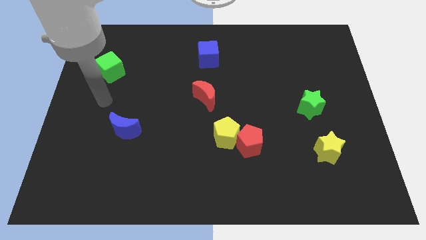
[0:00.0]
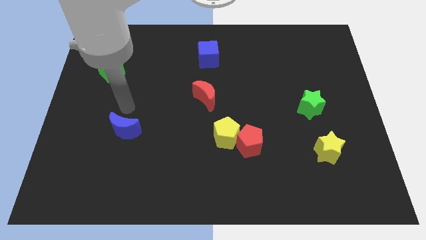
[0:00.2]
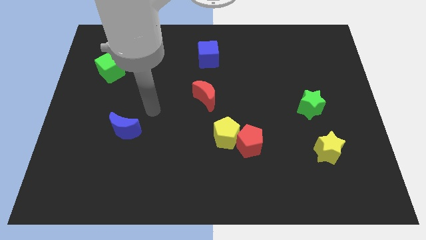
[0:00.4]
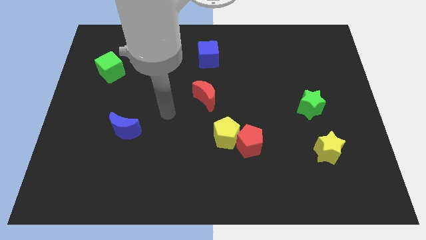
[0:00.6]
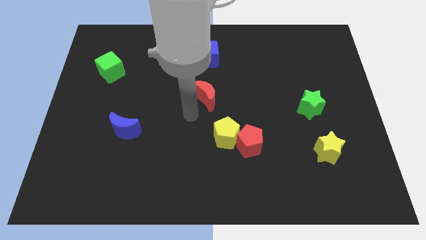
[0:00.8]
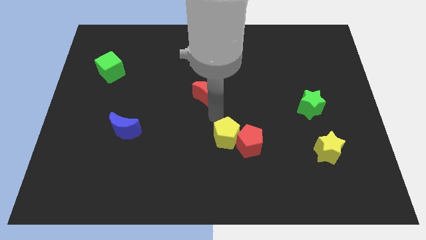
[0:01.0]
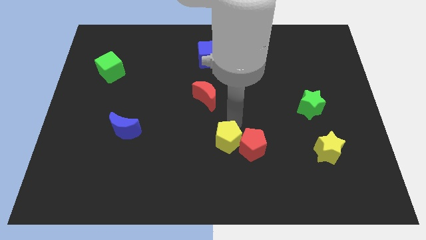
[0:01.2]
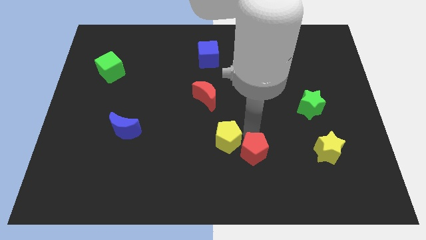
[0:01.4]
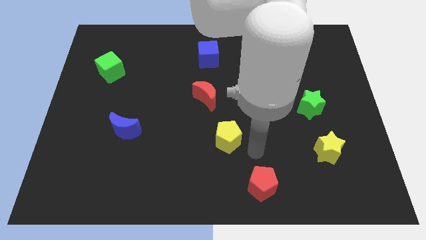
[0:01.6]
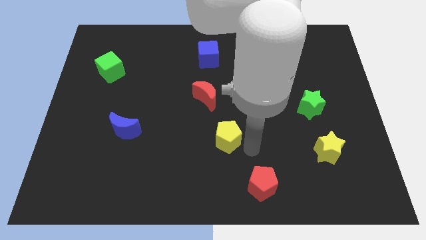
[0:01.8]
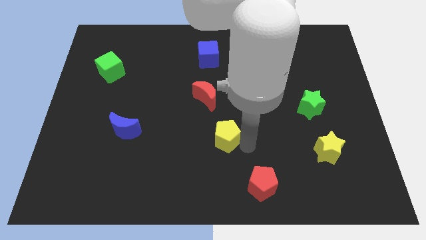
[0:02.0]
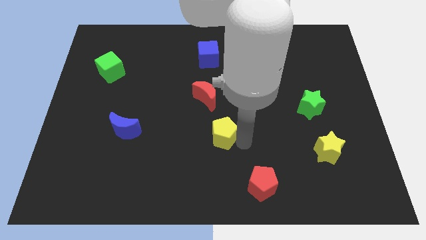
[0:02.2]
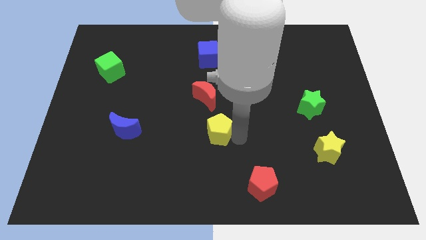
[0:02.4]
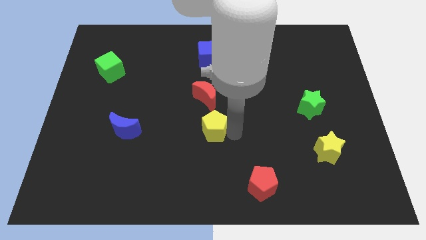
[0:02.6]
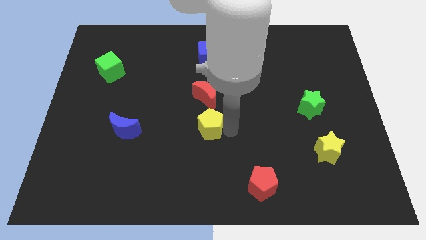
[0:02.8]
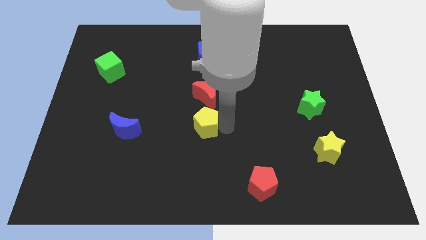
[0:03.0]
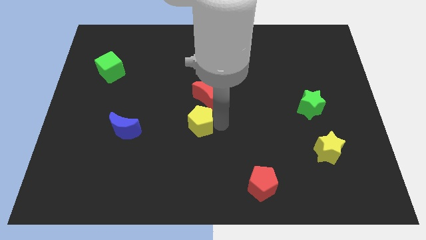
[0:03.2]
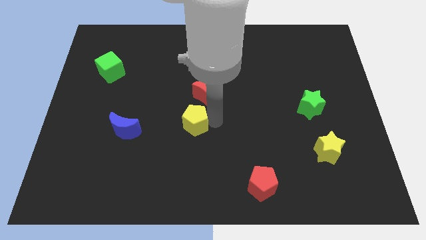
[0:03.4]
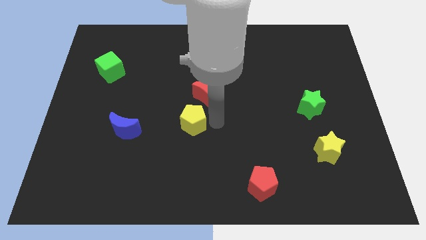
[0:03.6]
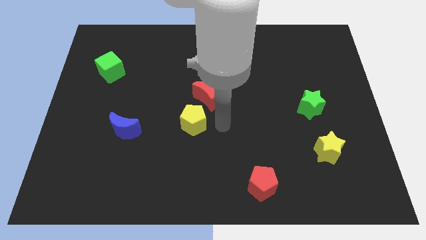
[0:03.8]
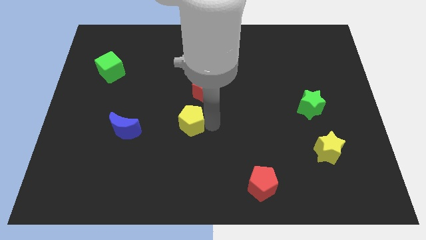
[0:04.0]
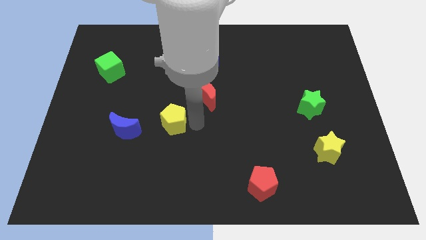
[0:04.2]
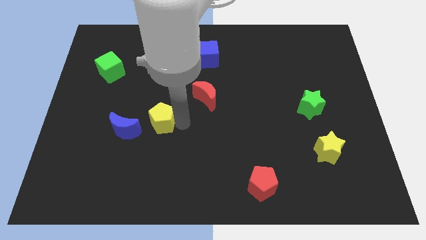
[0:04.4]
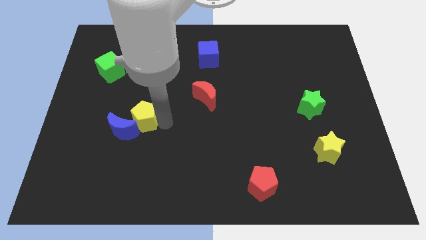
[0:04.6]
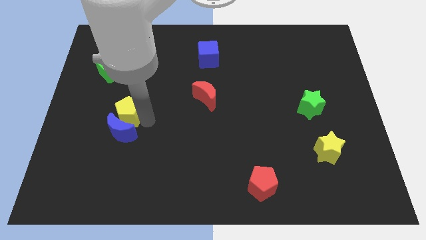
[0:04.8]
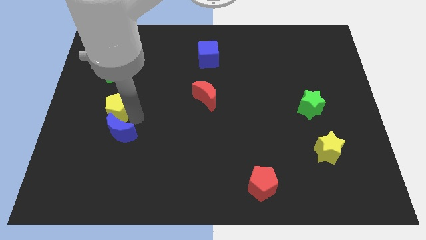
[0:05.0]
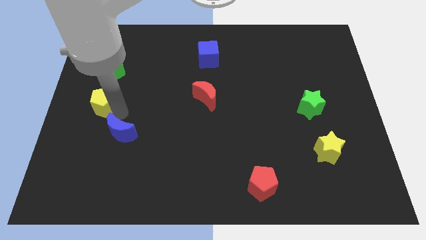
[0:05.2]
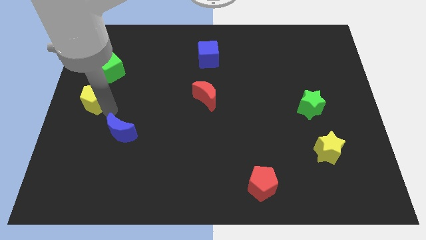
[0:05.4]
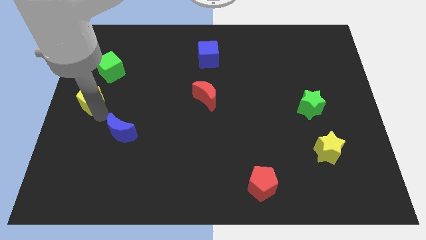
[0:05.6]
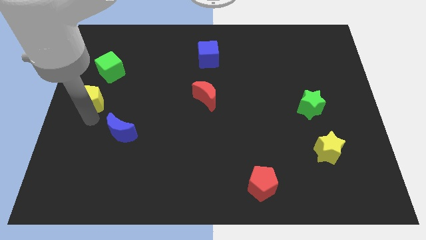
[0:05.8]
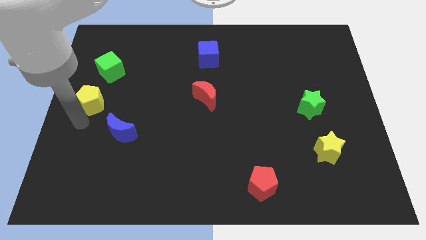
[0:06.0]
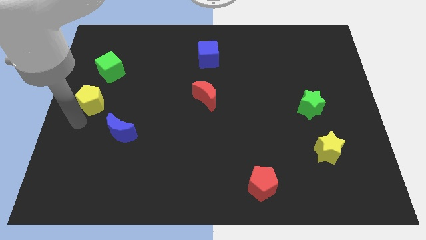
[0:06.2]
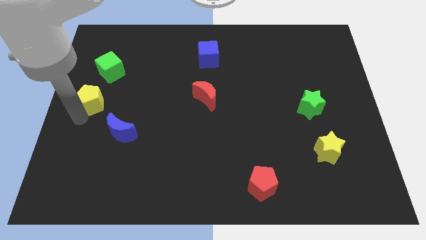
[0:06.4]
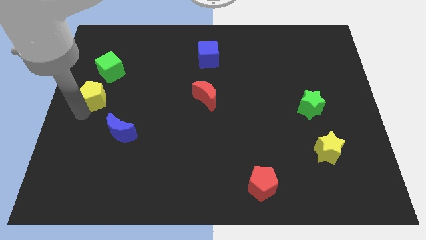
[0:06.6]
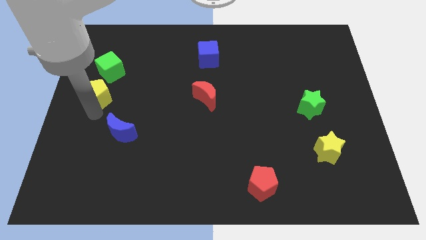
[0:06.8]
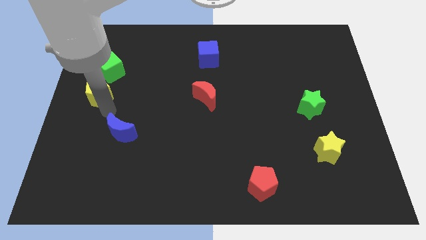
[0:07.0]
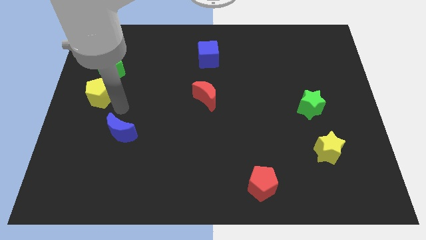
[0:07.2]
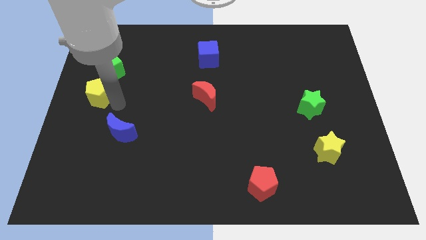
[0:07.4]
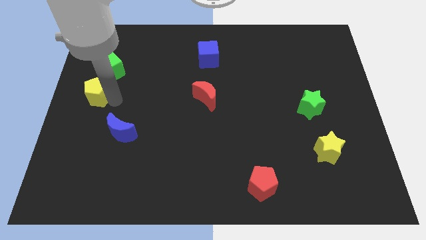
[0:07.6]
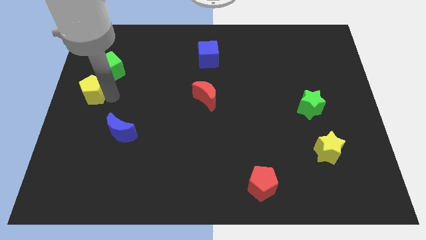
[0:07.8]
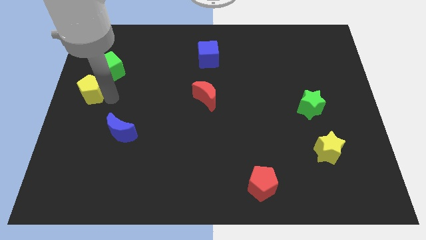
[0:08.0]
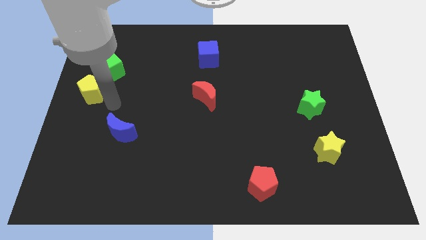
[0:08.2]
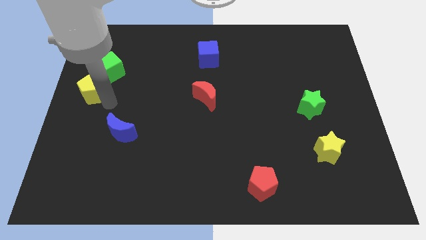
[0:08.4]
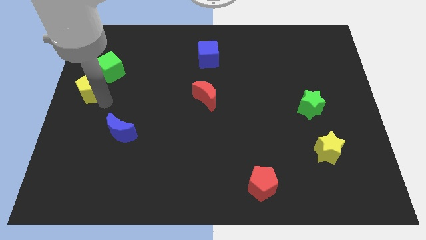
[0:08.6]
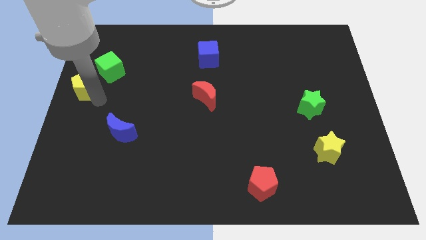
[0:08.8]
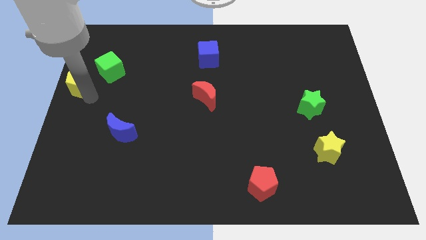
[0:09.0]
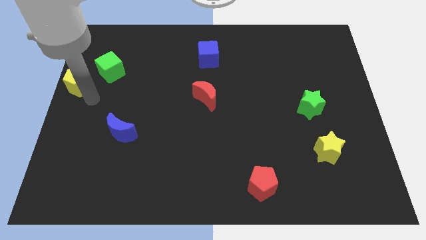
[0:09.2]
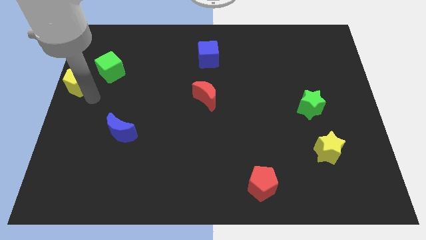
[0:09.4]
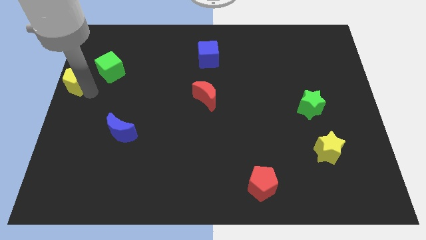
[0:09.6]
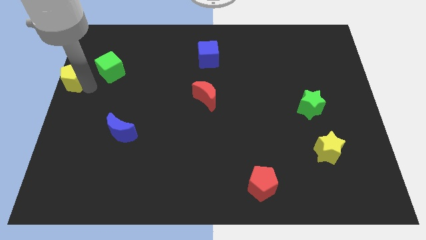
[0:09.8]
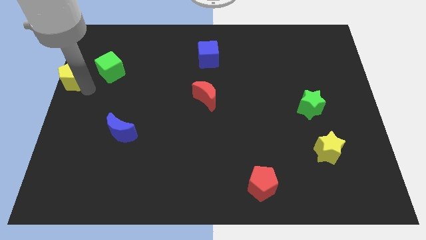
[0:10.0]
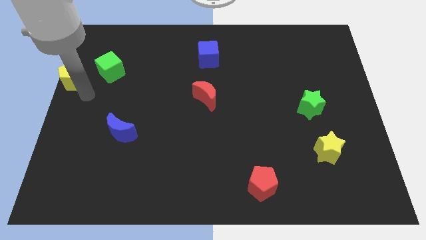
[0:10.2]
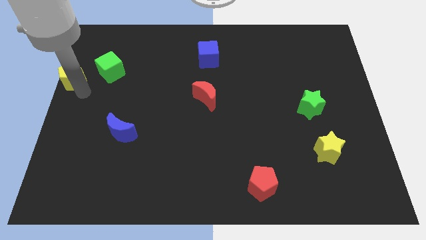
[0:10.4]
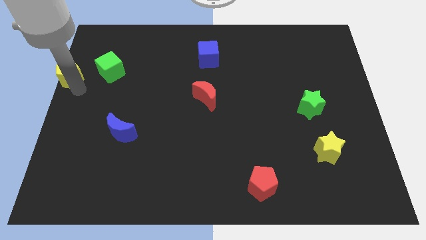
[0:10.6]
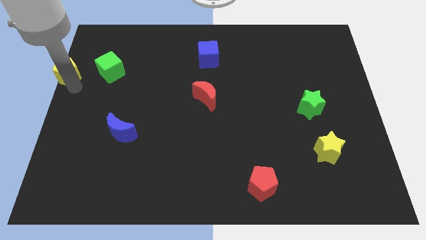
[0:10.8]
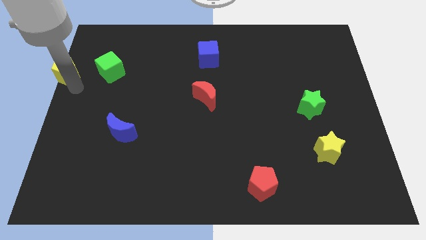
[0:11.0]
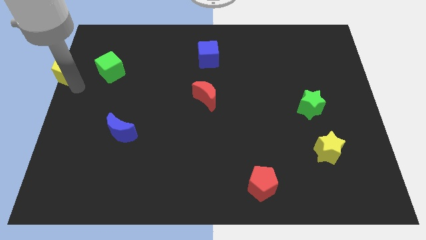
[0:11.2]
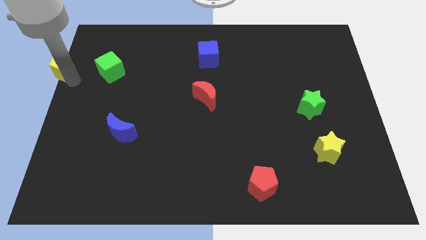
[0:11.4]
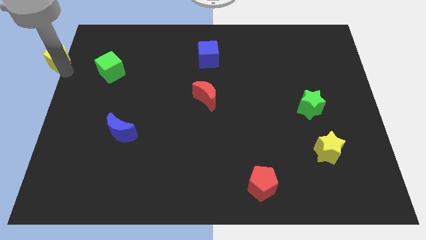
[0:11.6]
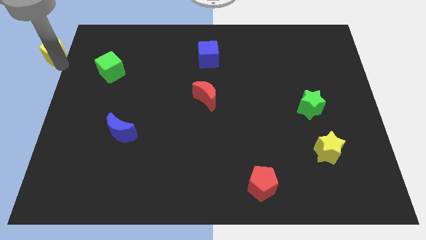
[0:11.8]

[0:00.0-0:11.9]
push the yellow pentagon to the top left of the board

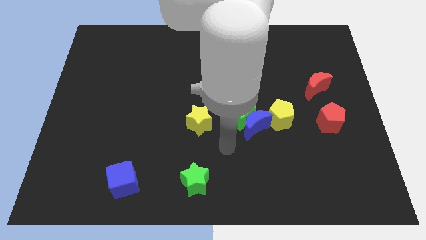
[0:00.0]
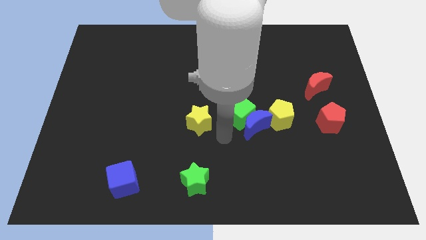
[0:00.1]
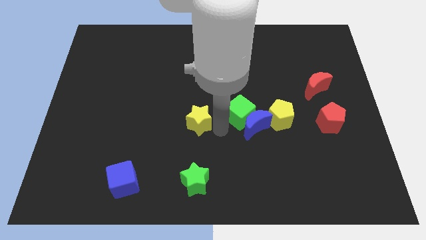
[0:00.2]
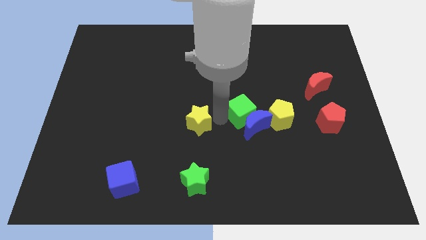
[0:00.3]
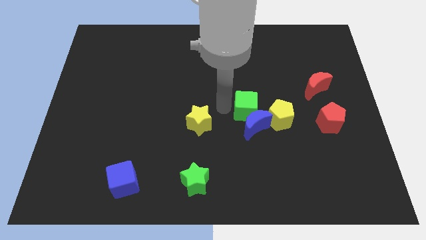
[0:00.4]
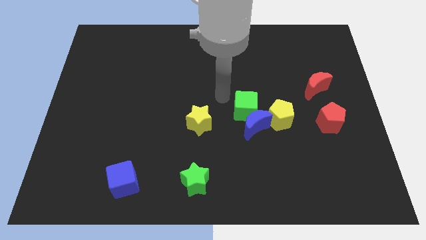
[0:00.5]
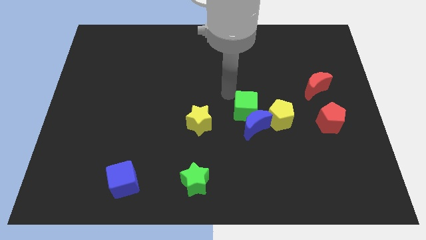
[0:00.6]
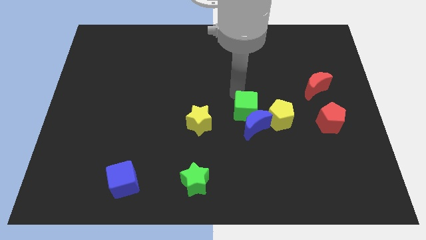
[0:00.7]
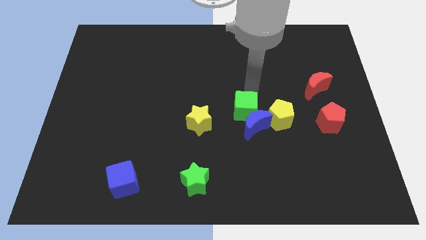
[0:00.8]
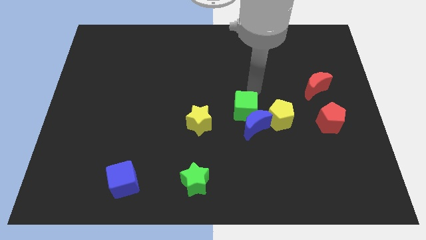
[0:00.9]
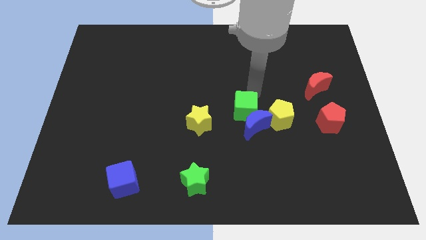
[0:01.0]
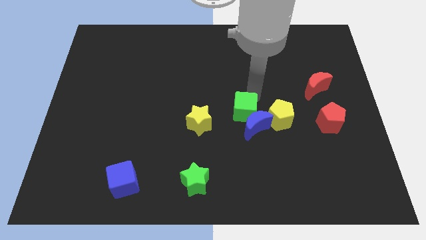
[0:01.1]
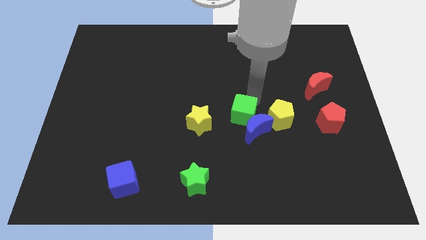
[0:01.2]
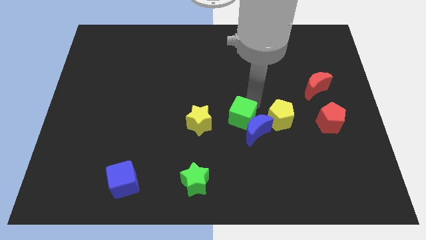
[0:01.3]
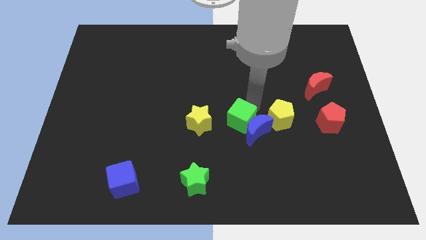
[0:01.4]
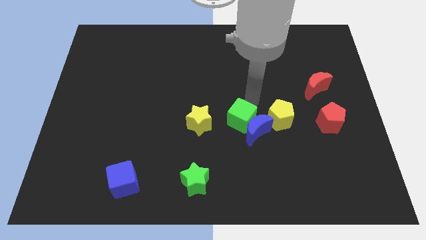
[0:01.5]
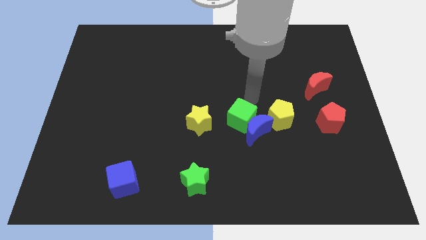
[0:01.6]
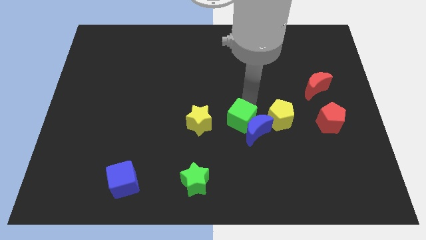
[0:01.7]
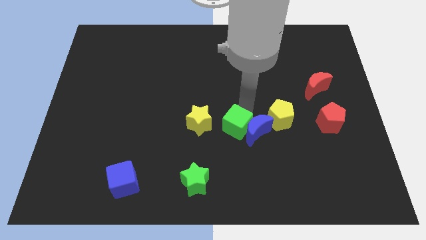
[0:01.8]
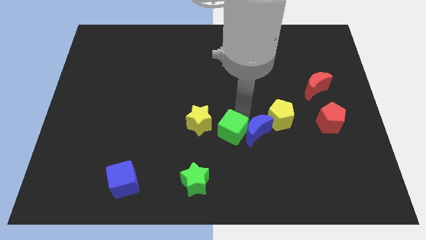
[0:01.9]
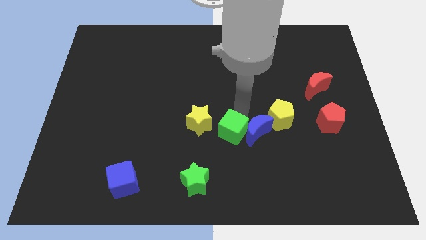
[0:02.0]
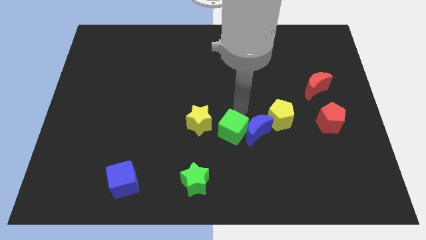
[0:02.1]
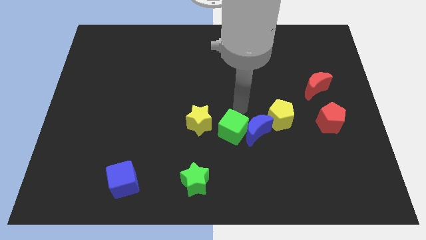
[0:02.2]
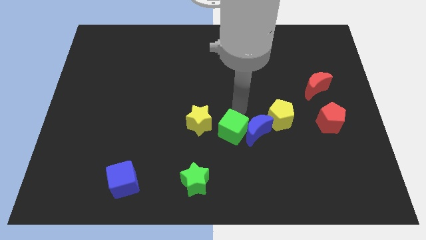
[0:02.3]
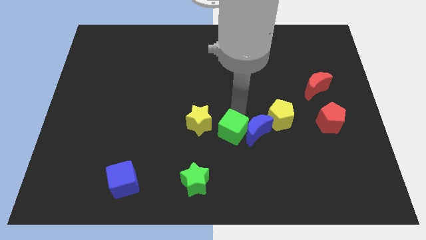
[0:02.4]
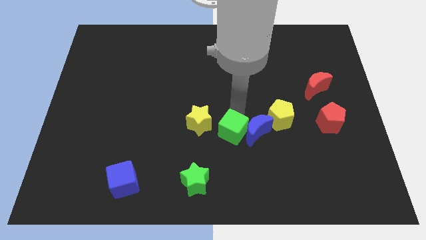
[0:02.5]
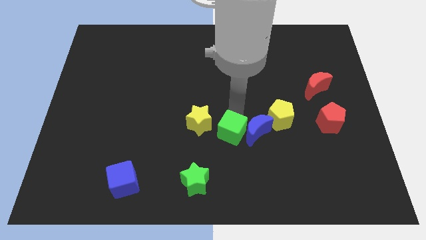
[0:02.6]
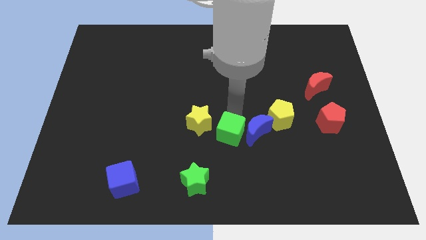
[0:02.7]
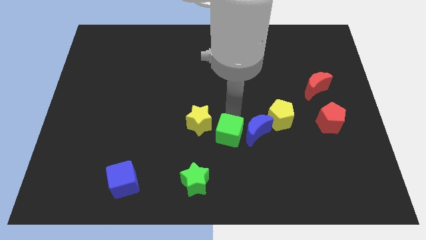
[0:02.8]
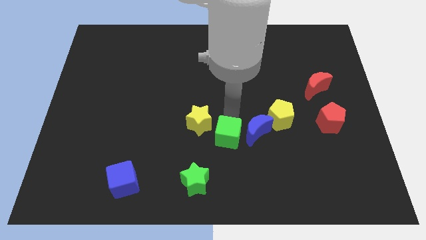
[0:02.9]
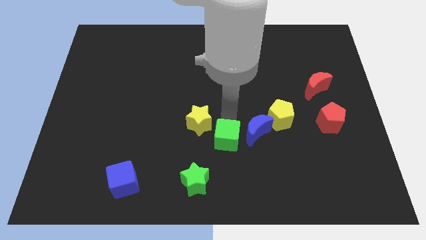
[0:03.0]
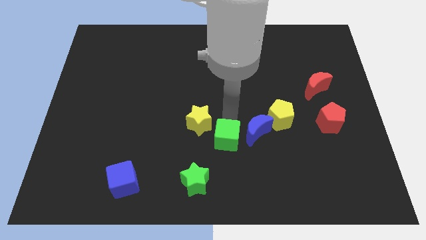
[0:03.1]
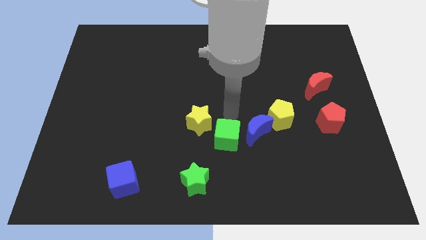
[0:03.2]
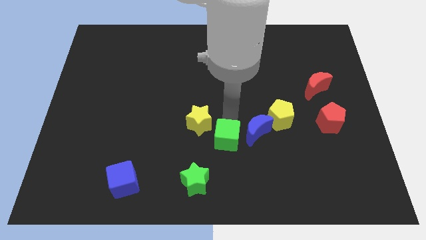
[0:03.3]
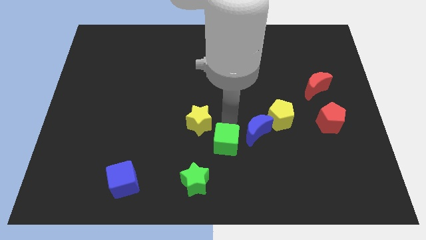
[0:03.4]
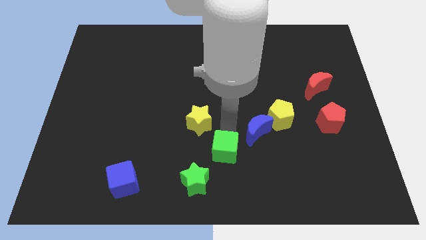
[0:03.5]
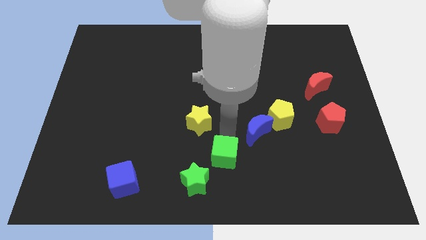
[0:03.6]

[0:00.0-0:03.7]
move the green cube to the bottom side
